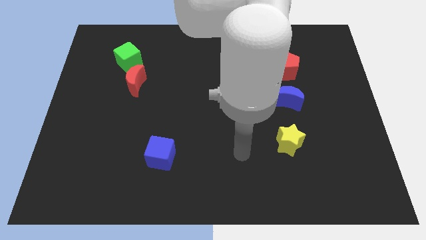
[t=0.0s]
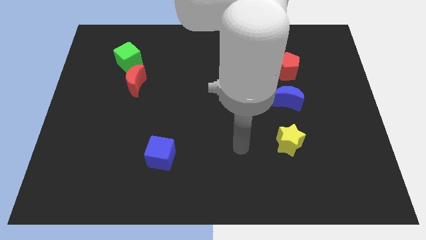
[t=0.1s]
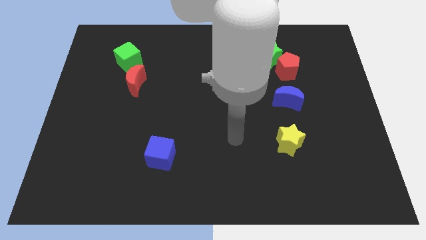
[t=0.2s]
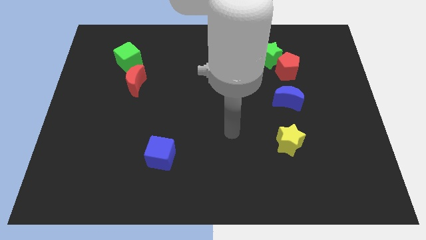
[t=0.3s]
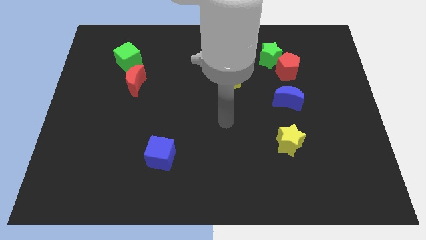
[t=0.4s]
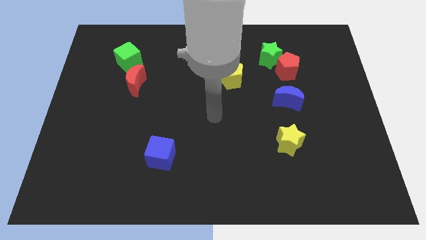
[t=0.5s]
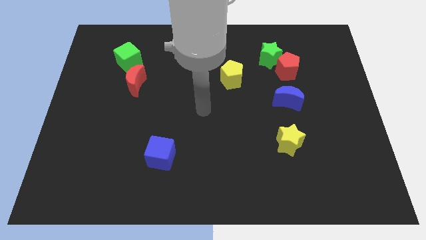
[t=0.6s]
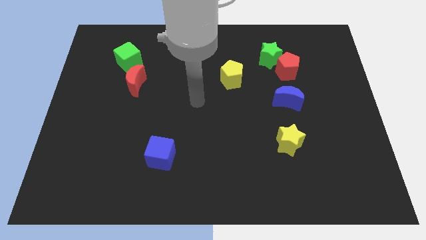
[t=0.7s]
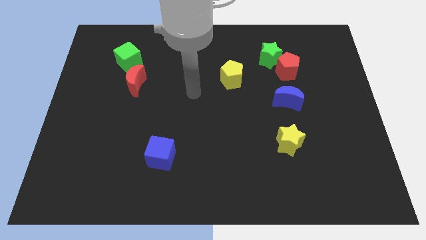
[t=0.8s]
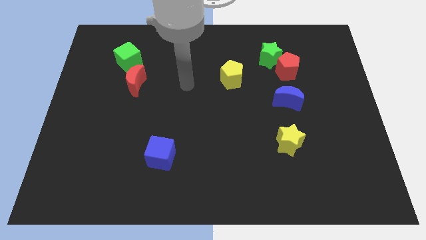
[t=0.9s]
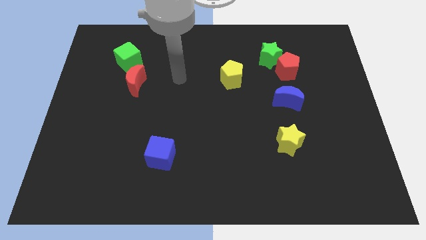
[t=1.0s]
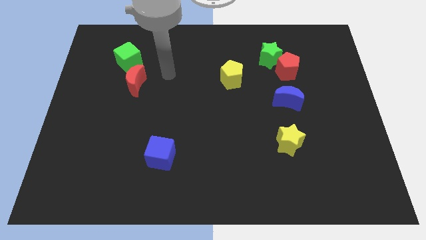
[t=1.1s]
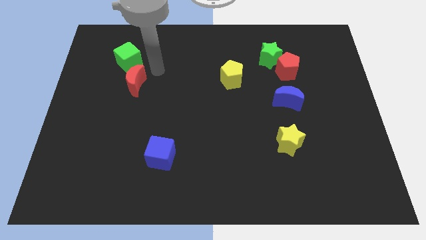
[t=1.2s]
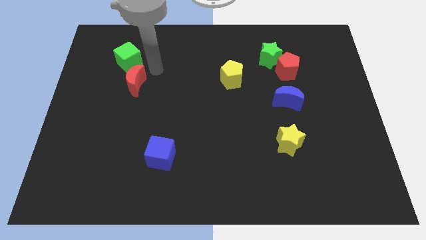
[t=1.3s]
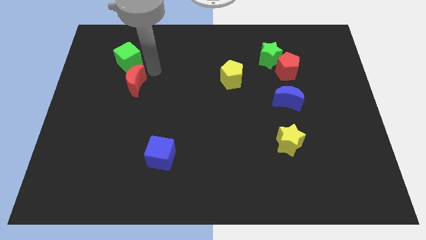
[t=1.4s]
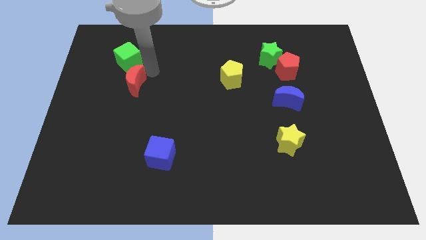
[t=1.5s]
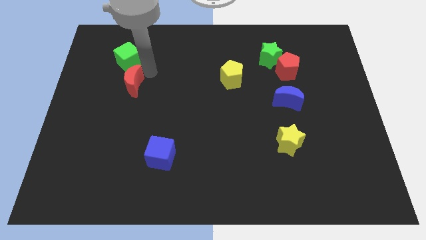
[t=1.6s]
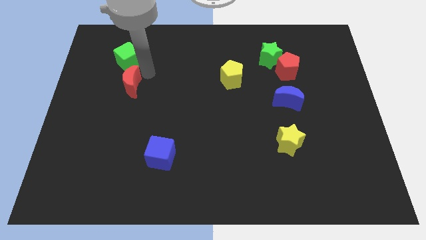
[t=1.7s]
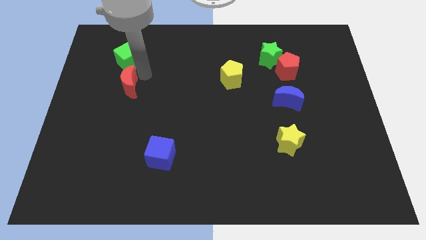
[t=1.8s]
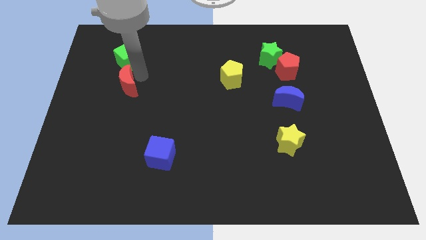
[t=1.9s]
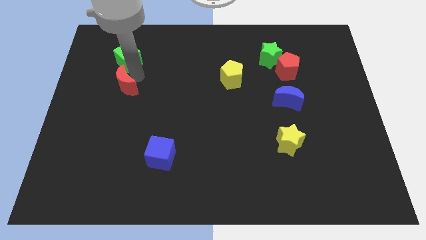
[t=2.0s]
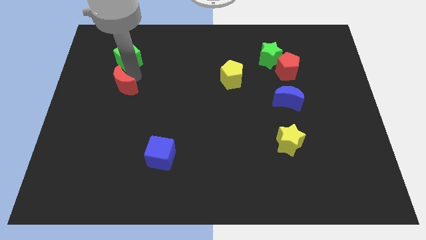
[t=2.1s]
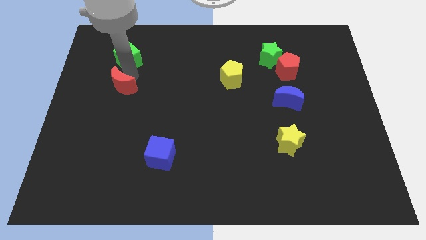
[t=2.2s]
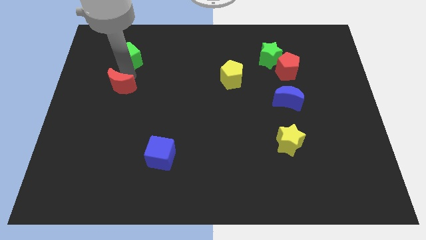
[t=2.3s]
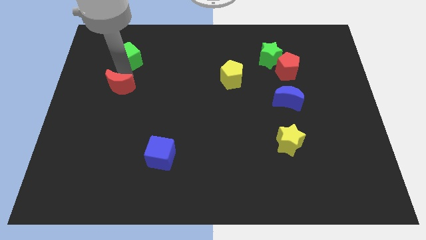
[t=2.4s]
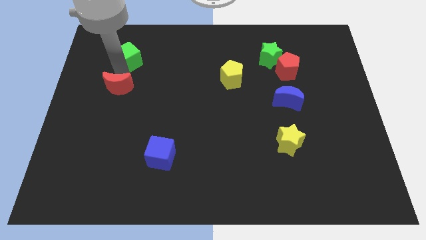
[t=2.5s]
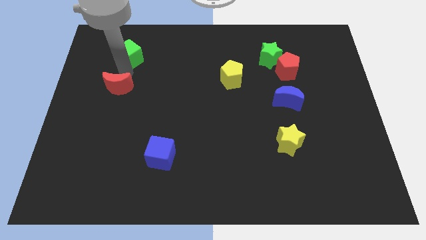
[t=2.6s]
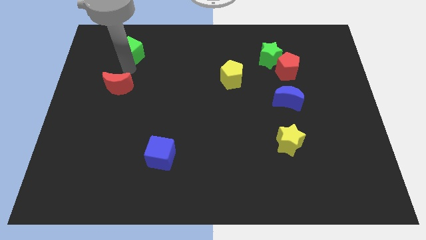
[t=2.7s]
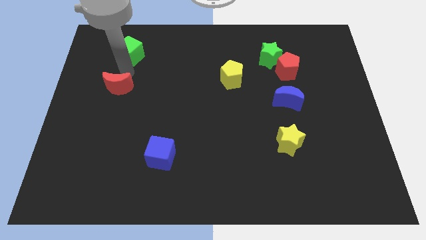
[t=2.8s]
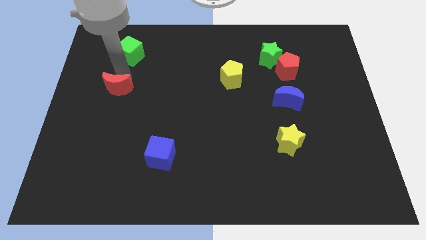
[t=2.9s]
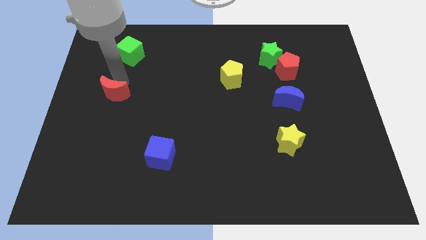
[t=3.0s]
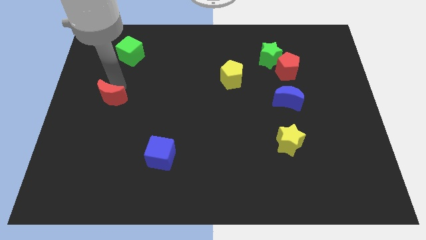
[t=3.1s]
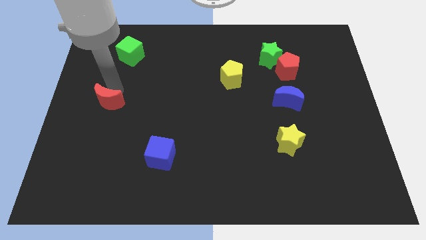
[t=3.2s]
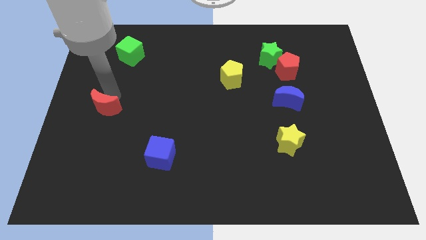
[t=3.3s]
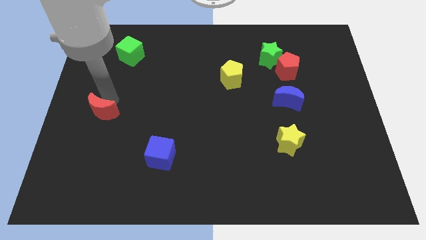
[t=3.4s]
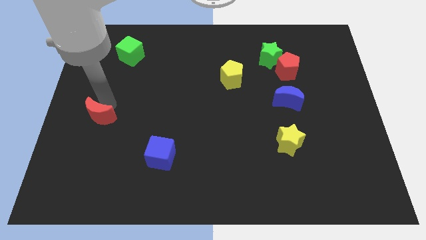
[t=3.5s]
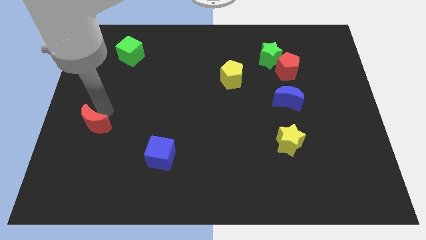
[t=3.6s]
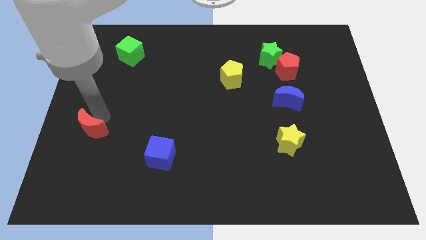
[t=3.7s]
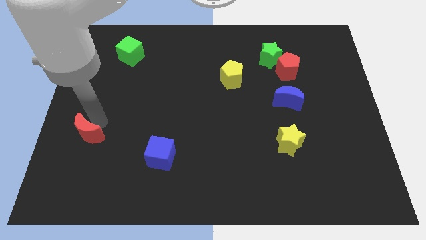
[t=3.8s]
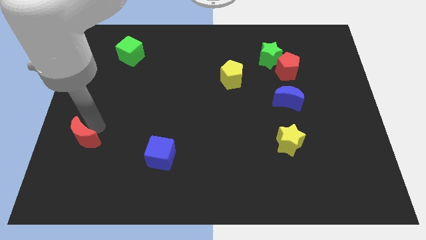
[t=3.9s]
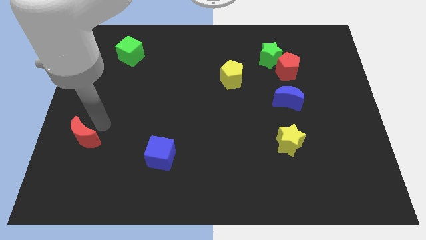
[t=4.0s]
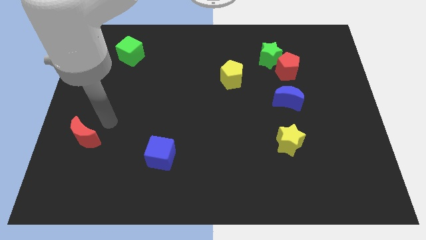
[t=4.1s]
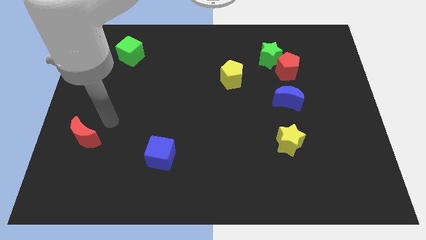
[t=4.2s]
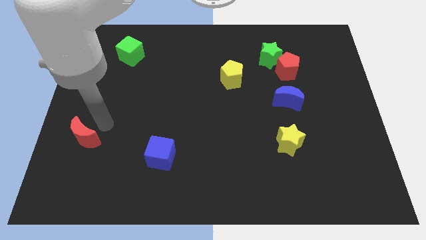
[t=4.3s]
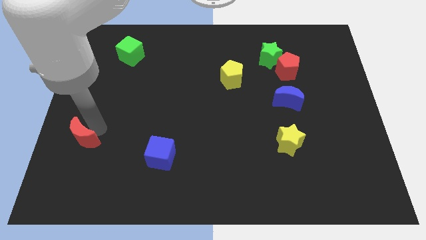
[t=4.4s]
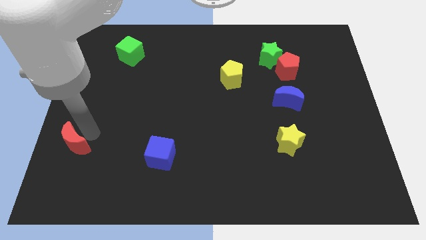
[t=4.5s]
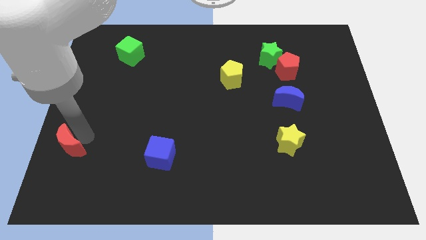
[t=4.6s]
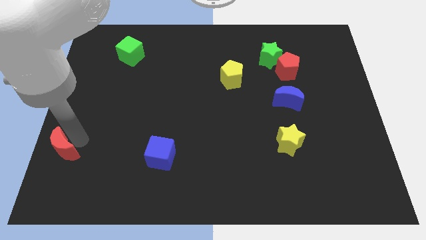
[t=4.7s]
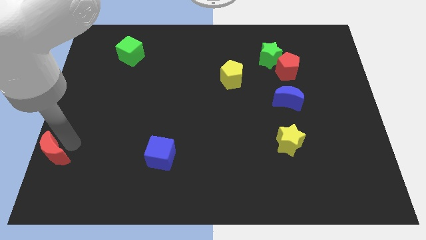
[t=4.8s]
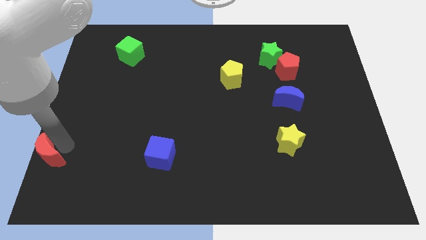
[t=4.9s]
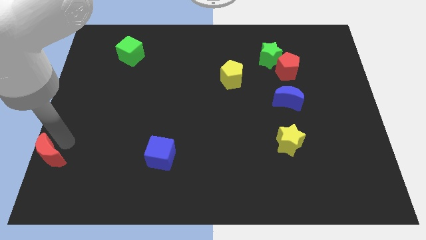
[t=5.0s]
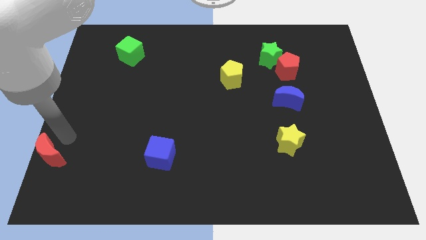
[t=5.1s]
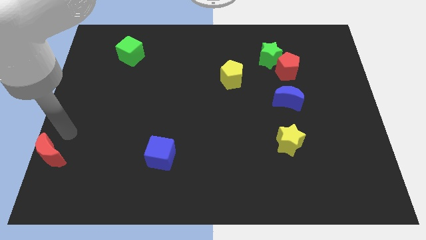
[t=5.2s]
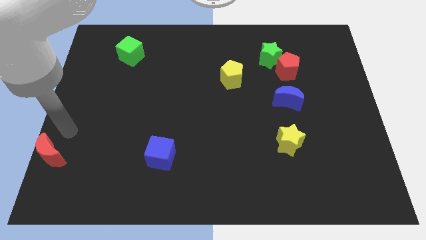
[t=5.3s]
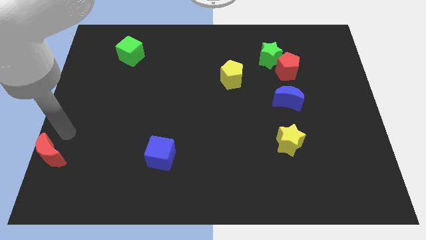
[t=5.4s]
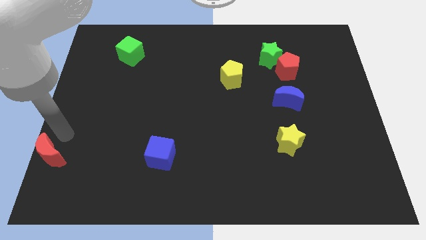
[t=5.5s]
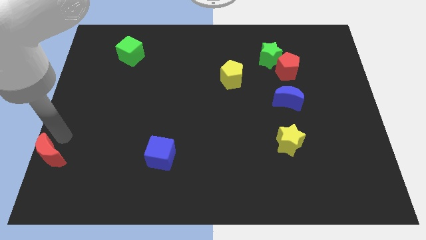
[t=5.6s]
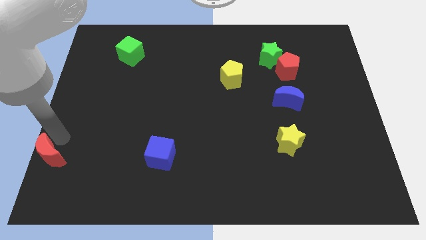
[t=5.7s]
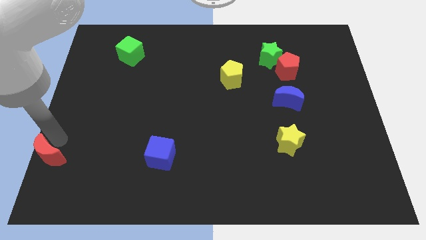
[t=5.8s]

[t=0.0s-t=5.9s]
put the red moon to the bottom left
